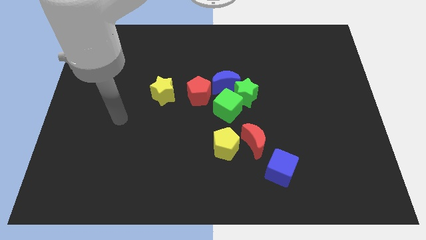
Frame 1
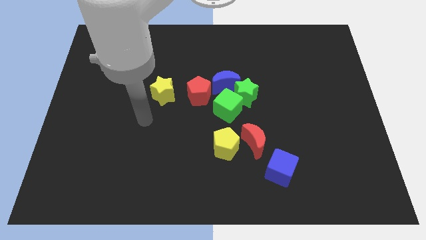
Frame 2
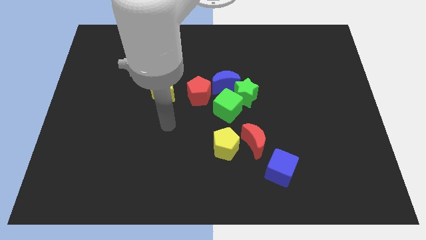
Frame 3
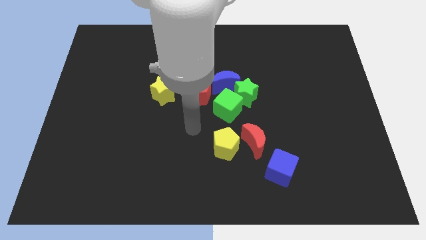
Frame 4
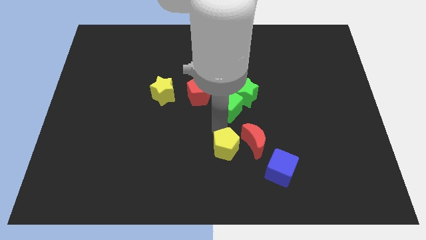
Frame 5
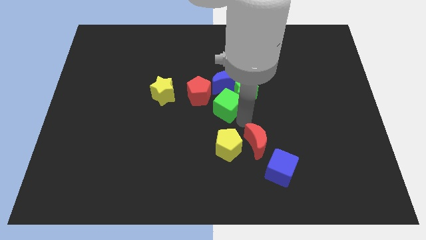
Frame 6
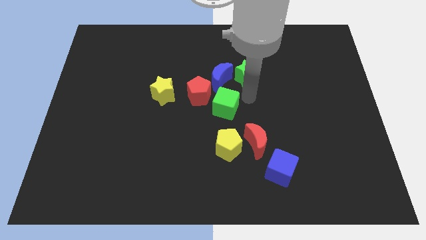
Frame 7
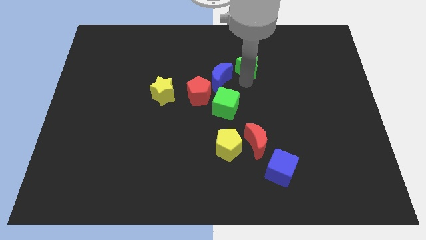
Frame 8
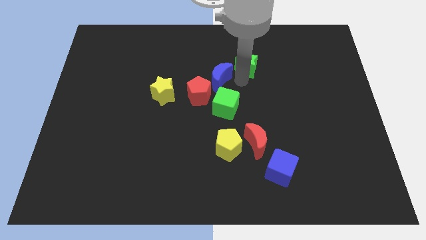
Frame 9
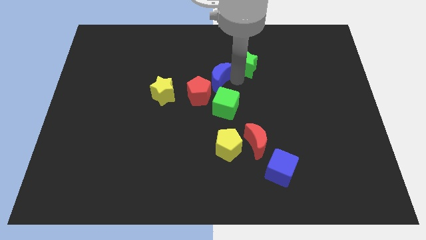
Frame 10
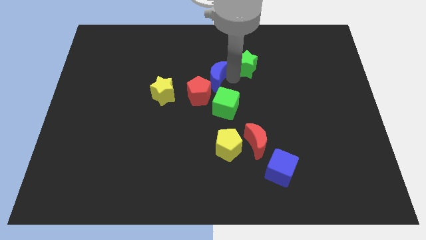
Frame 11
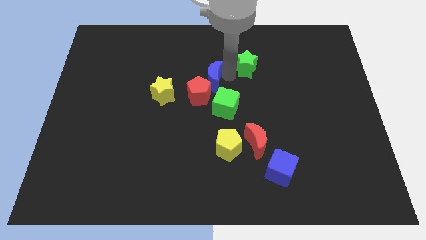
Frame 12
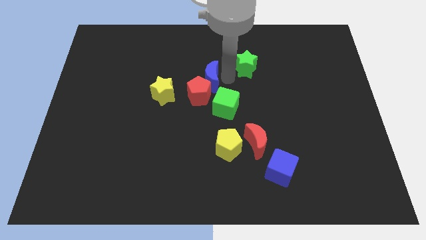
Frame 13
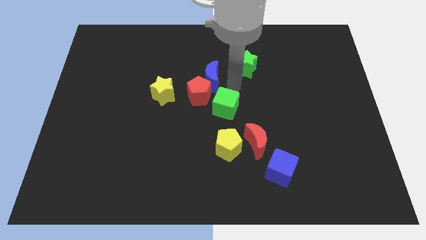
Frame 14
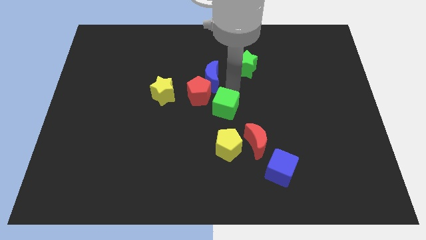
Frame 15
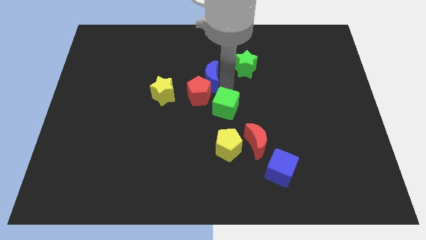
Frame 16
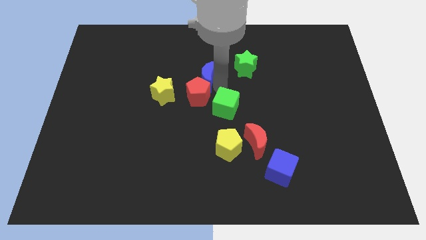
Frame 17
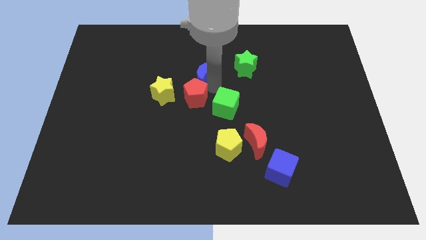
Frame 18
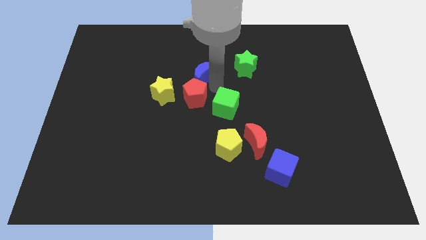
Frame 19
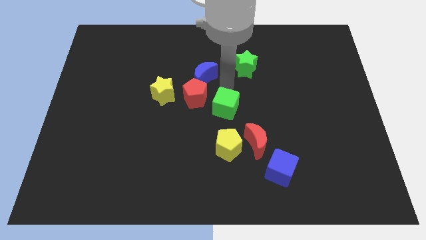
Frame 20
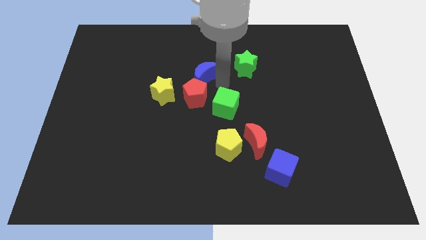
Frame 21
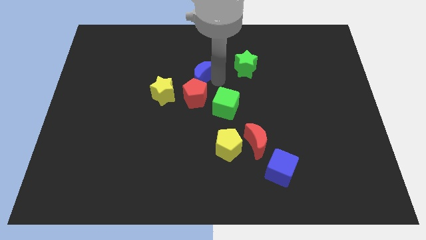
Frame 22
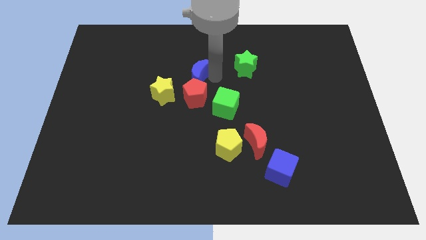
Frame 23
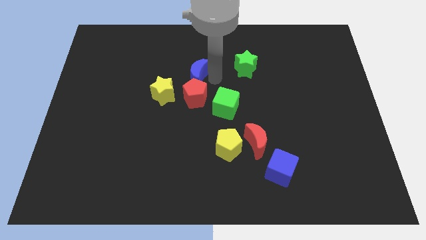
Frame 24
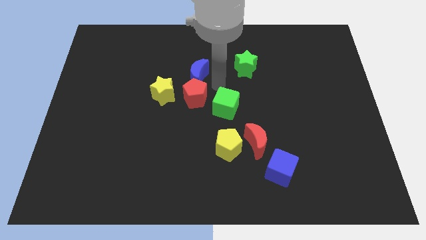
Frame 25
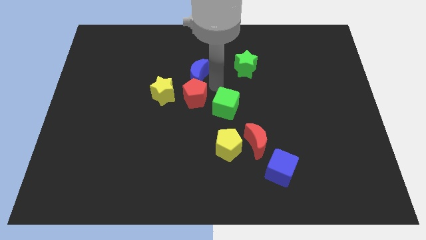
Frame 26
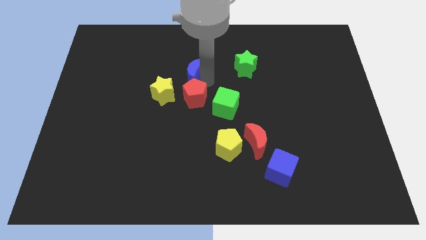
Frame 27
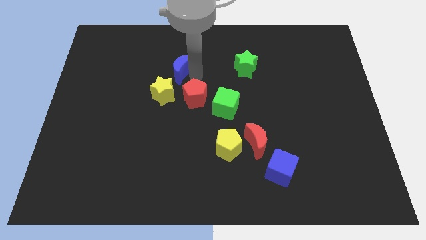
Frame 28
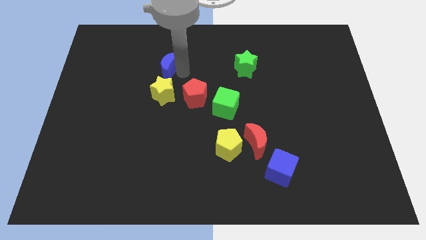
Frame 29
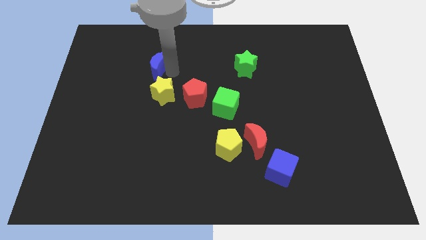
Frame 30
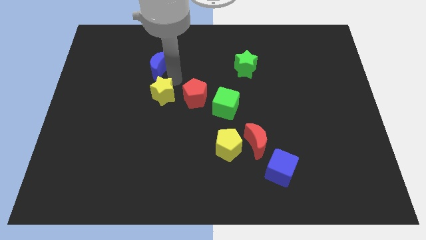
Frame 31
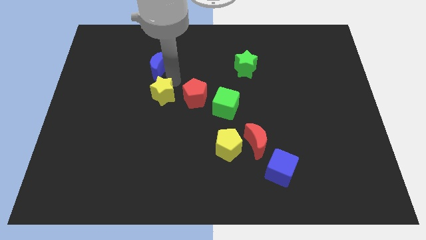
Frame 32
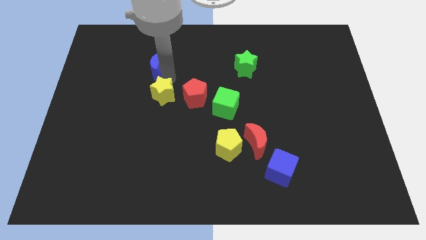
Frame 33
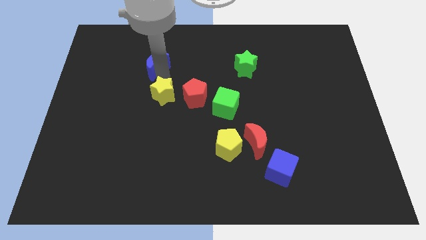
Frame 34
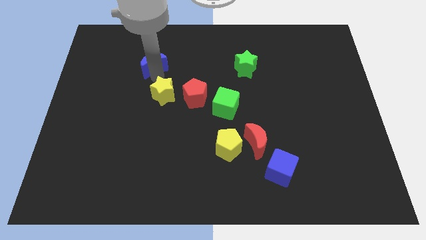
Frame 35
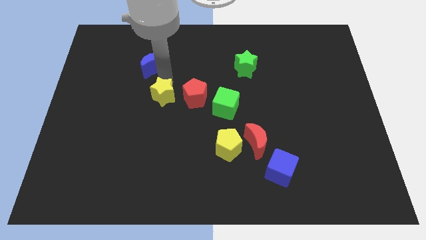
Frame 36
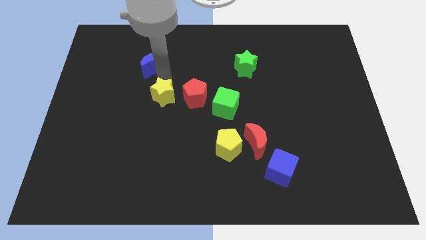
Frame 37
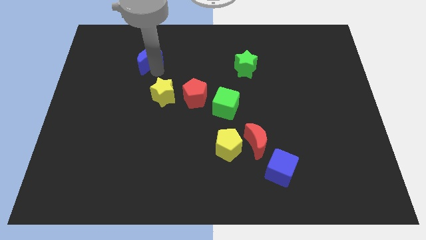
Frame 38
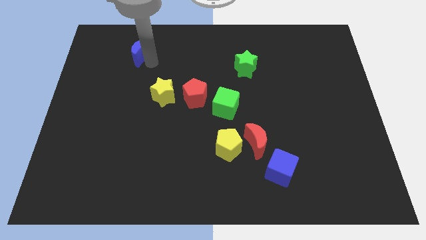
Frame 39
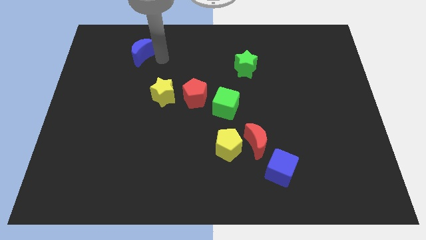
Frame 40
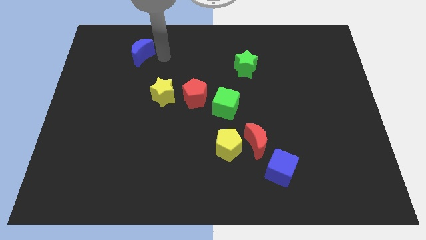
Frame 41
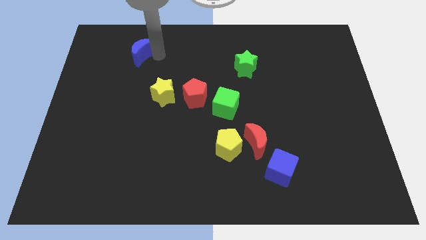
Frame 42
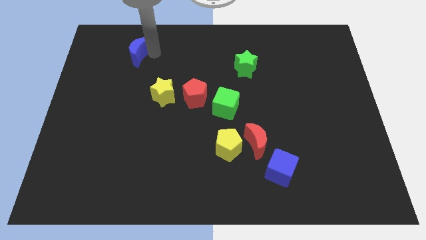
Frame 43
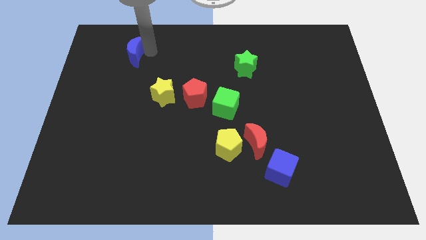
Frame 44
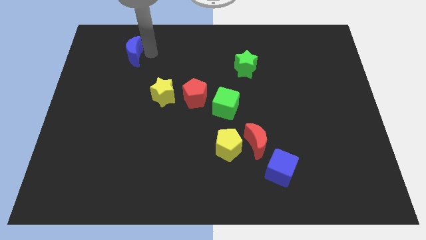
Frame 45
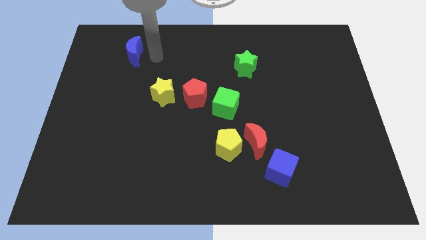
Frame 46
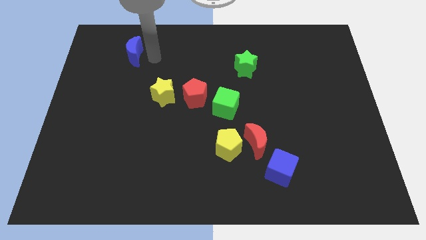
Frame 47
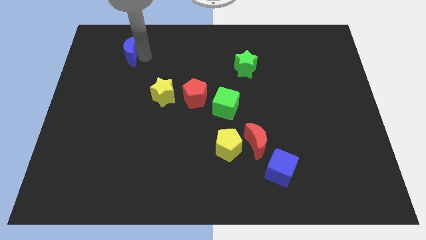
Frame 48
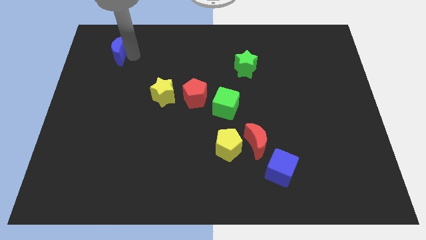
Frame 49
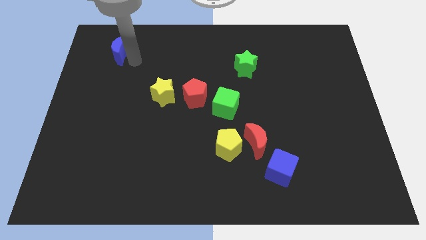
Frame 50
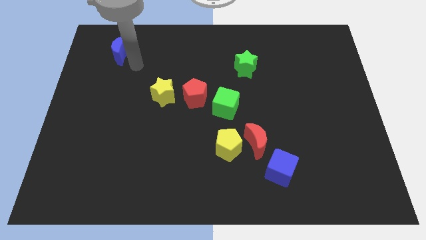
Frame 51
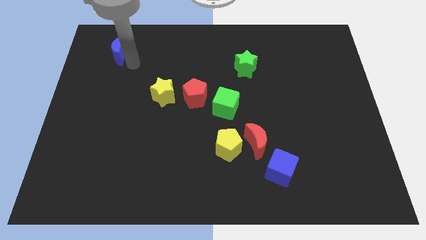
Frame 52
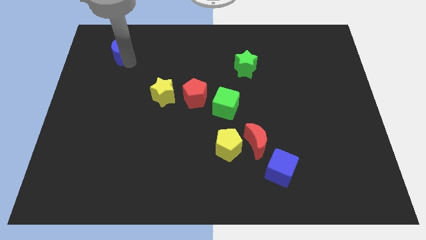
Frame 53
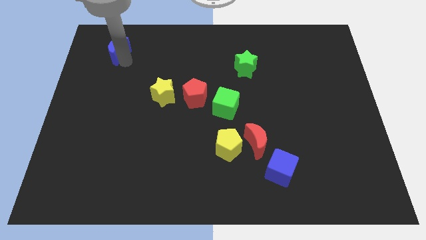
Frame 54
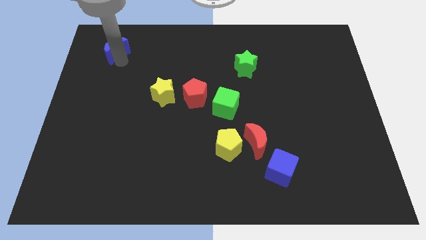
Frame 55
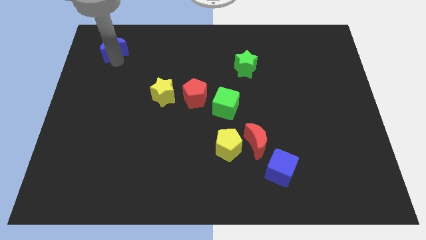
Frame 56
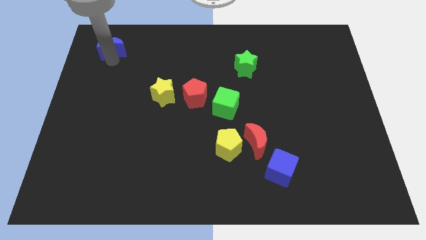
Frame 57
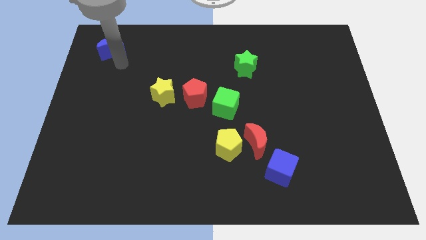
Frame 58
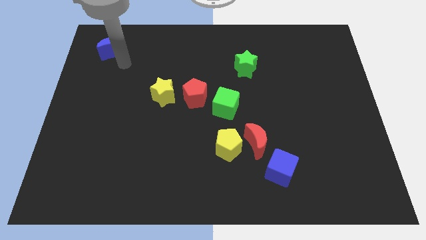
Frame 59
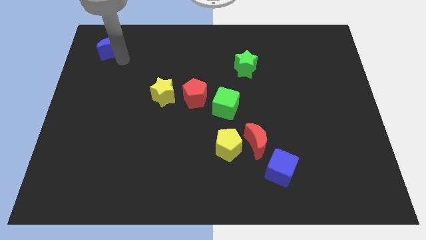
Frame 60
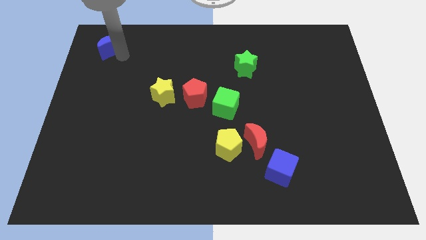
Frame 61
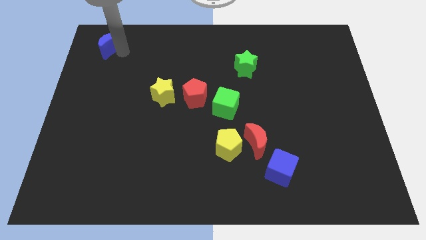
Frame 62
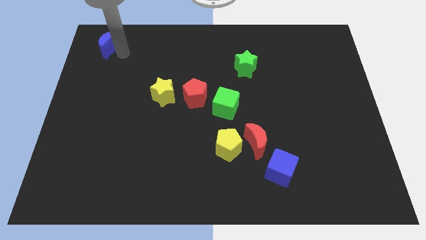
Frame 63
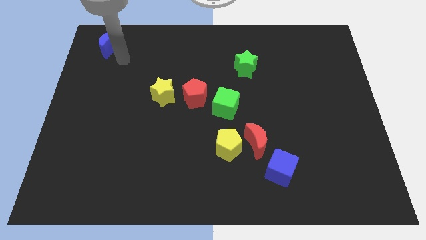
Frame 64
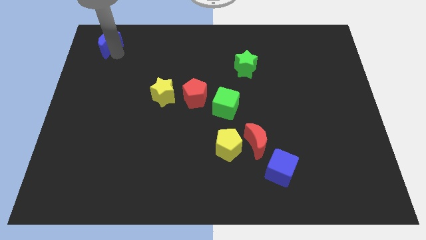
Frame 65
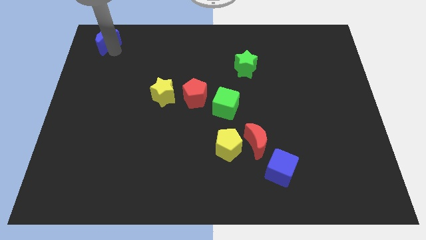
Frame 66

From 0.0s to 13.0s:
put the blue moon to the upper left corner

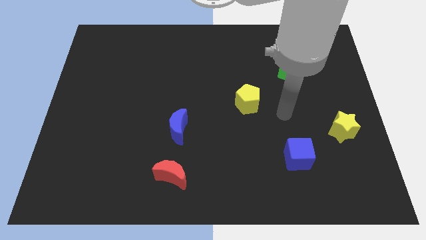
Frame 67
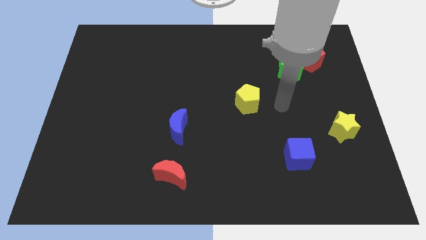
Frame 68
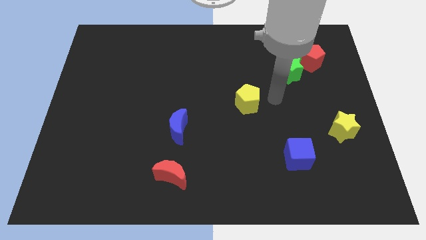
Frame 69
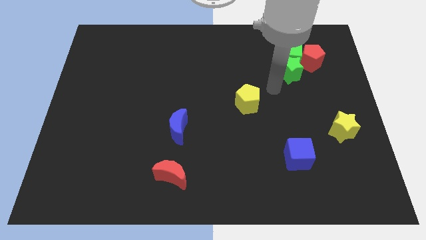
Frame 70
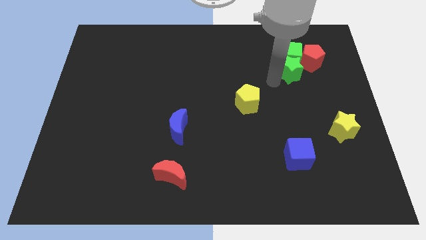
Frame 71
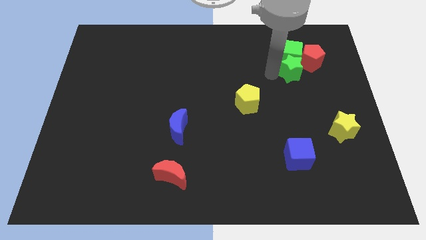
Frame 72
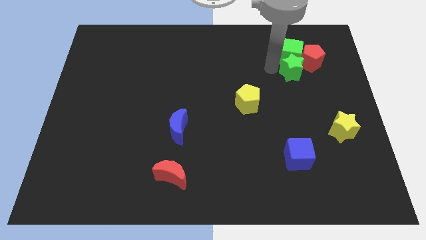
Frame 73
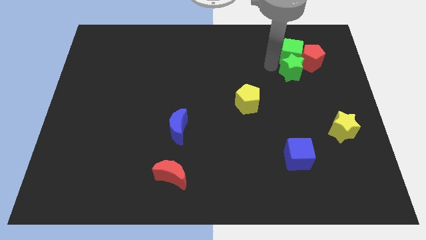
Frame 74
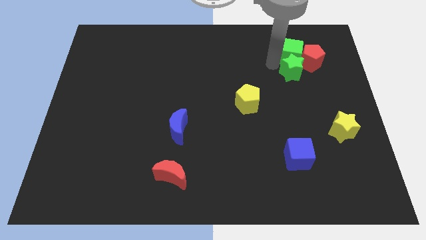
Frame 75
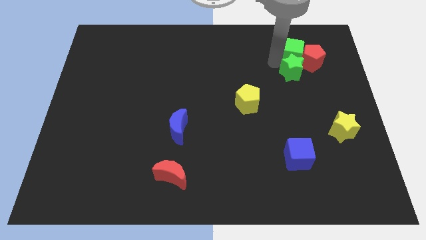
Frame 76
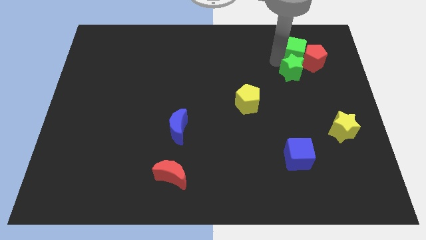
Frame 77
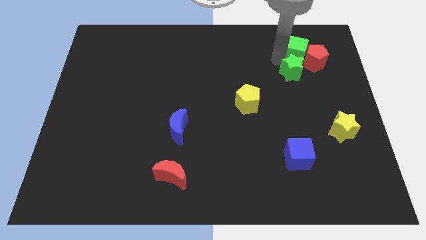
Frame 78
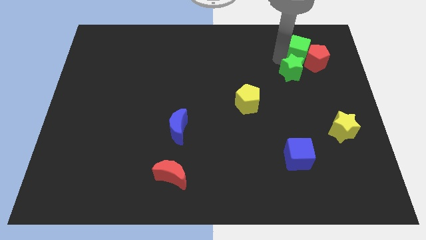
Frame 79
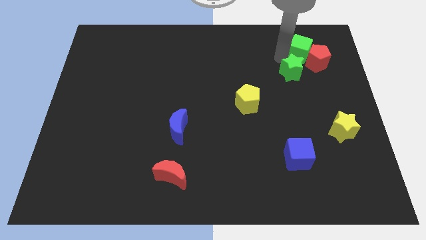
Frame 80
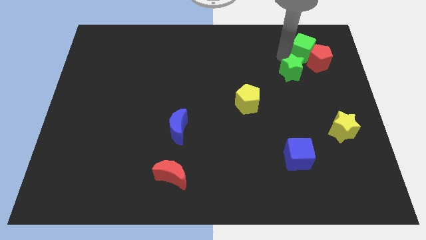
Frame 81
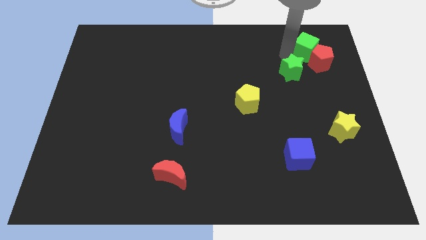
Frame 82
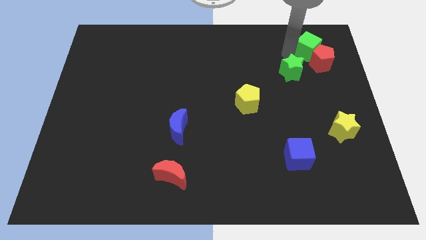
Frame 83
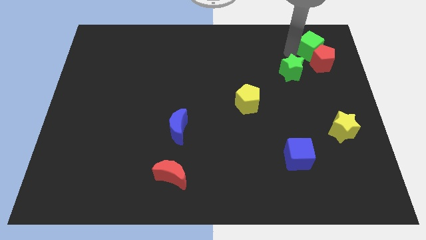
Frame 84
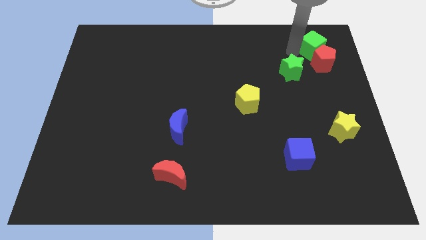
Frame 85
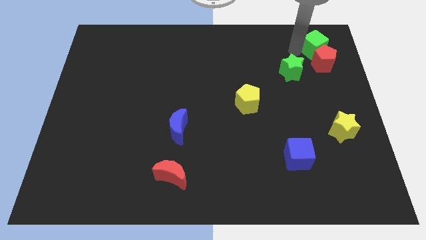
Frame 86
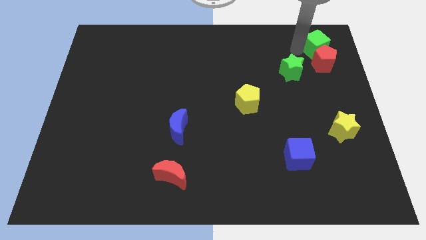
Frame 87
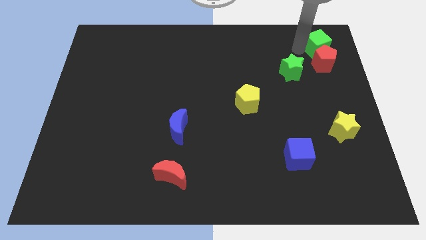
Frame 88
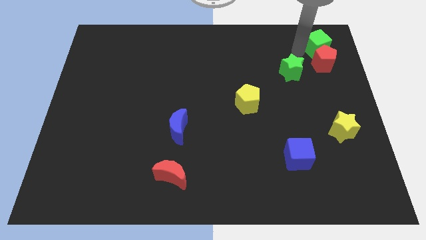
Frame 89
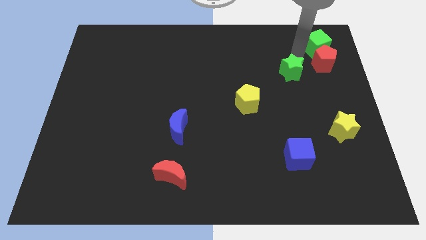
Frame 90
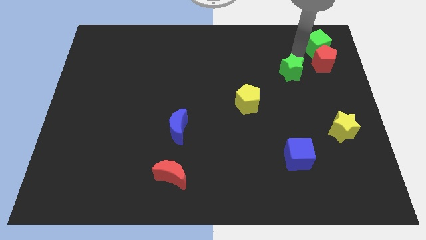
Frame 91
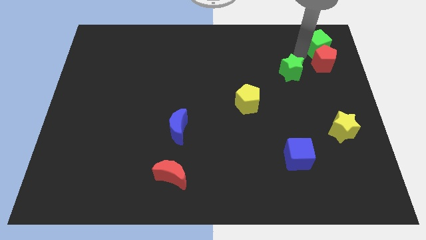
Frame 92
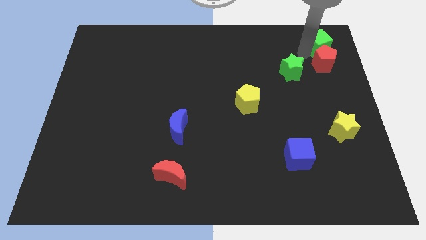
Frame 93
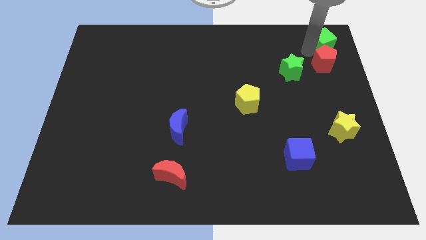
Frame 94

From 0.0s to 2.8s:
move the green cube to the top right
